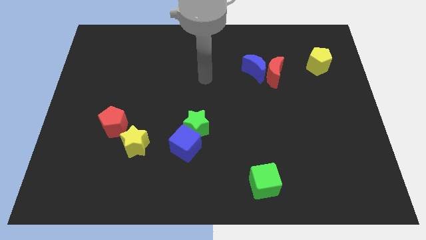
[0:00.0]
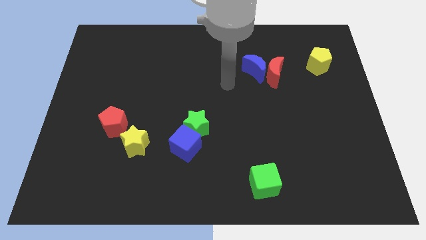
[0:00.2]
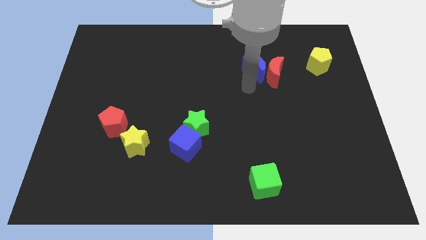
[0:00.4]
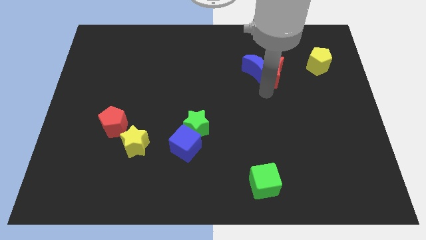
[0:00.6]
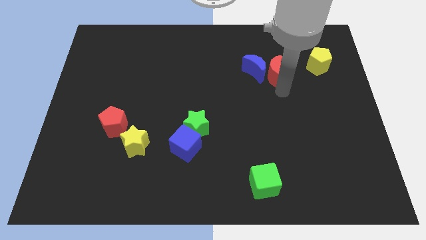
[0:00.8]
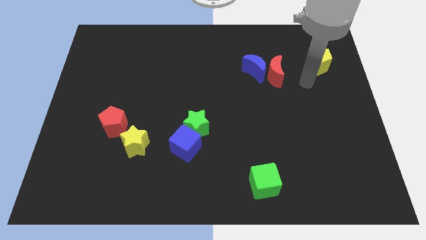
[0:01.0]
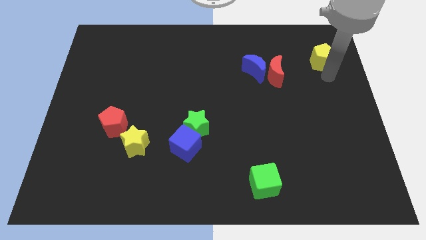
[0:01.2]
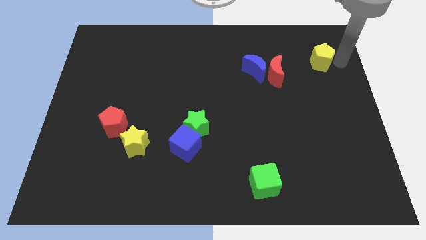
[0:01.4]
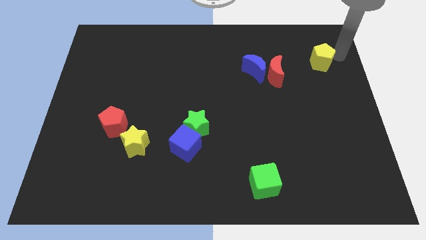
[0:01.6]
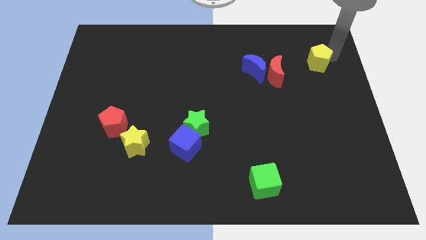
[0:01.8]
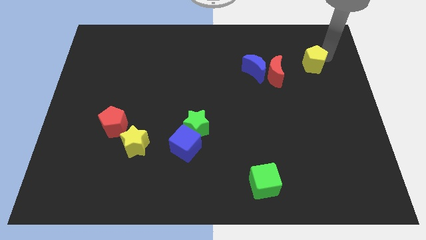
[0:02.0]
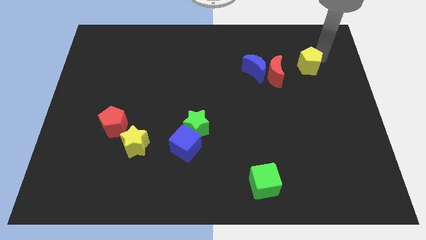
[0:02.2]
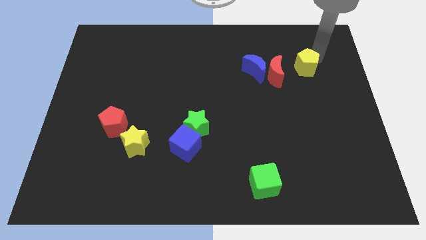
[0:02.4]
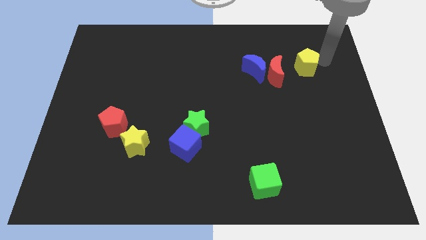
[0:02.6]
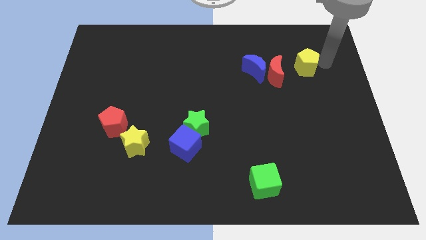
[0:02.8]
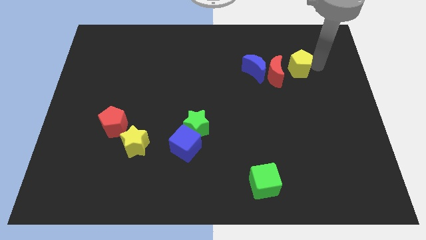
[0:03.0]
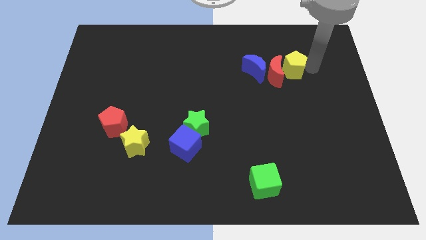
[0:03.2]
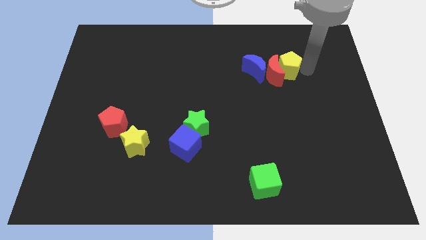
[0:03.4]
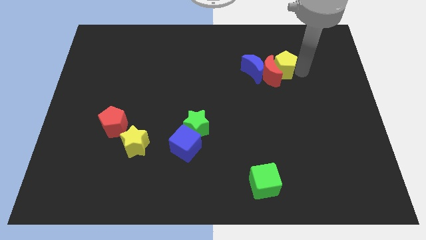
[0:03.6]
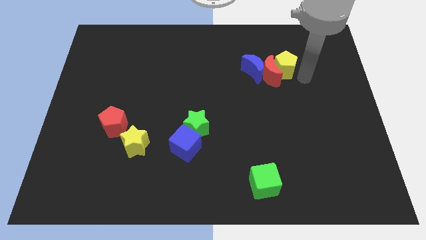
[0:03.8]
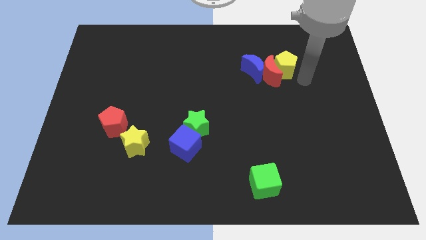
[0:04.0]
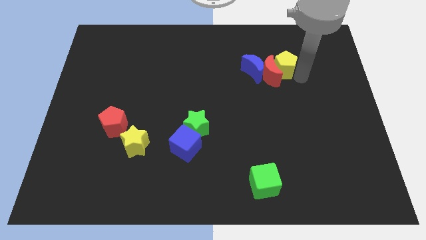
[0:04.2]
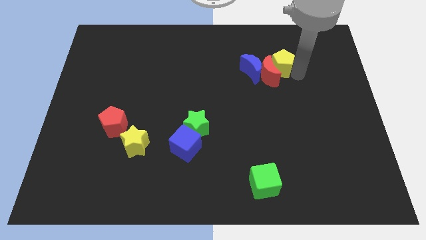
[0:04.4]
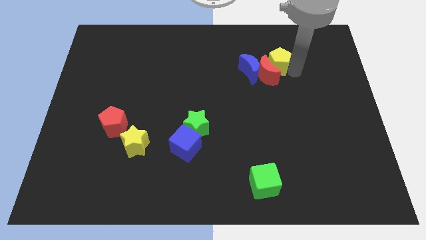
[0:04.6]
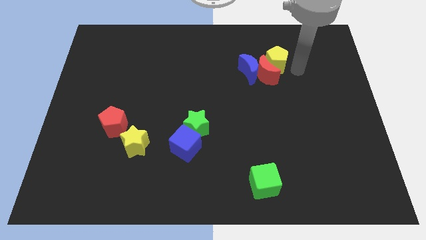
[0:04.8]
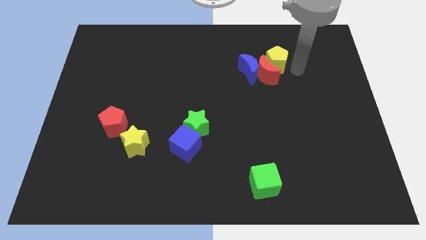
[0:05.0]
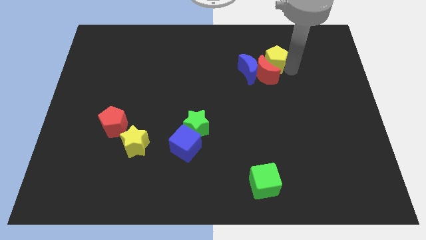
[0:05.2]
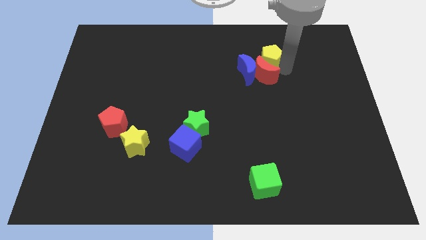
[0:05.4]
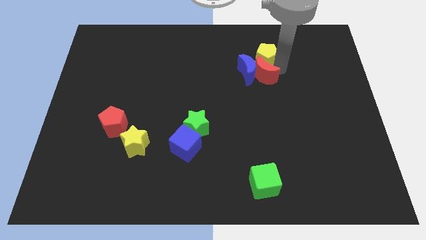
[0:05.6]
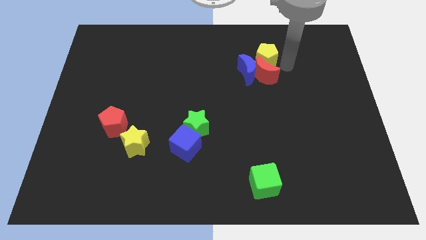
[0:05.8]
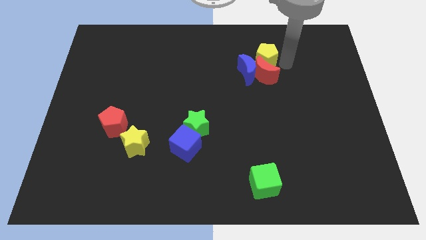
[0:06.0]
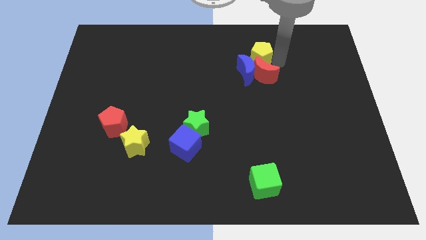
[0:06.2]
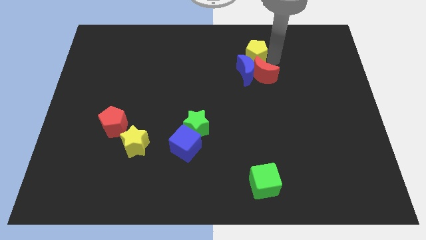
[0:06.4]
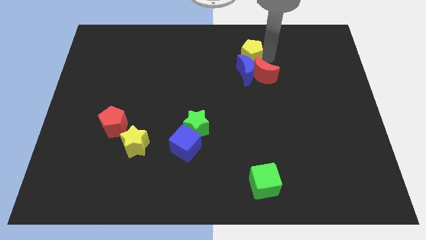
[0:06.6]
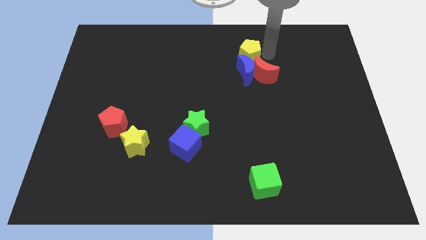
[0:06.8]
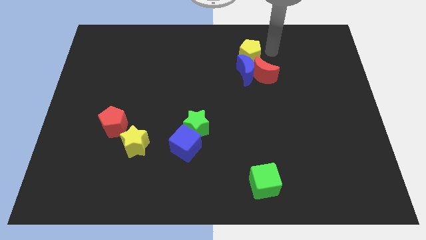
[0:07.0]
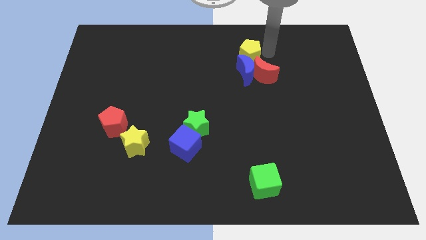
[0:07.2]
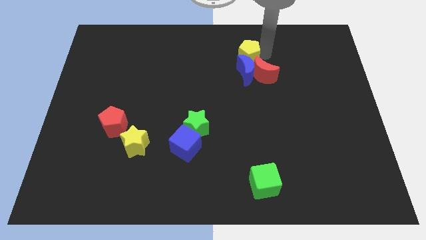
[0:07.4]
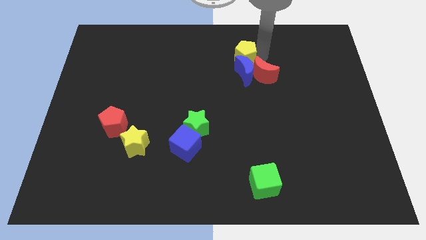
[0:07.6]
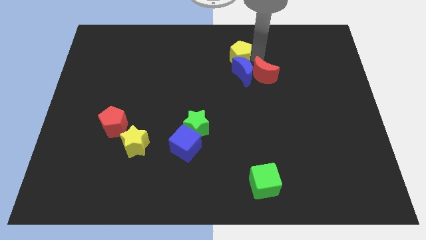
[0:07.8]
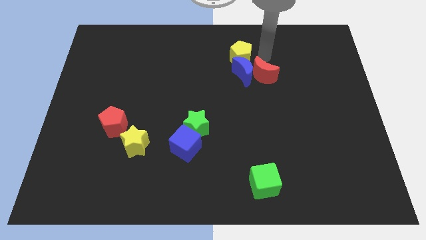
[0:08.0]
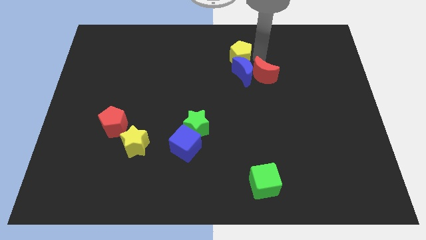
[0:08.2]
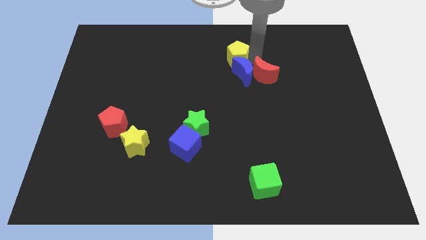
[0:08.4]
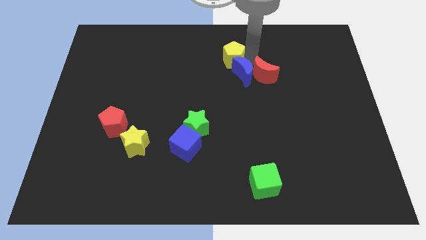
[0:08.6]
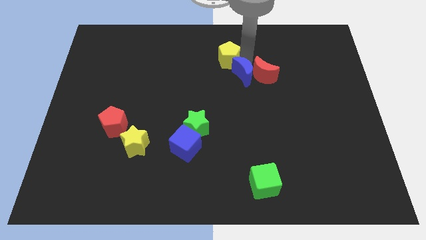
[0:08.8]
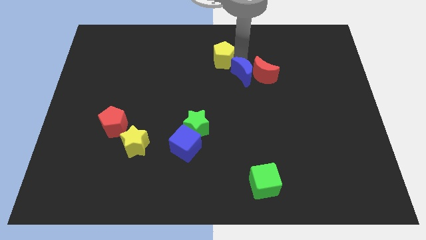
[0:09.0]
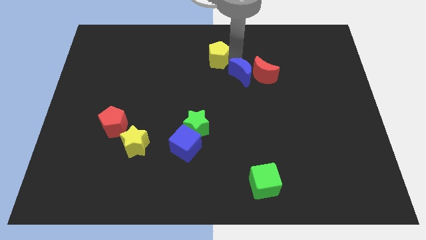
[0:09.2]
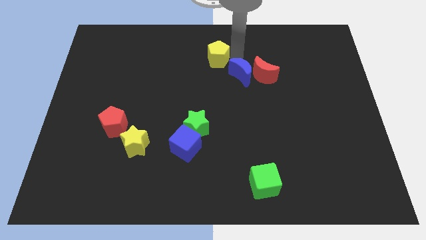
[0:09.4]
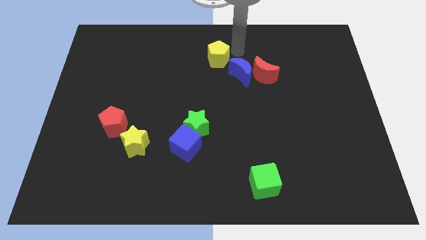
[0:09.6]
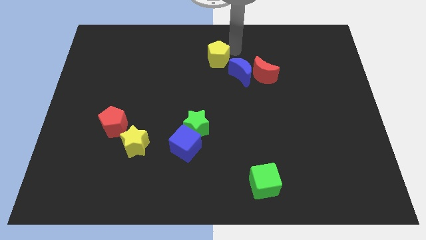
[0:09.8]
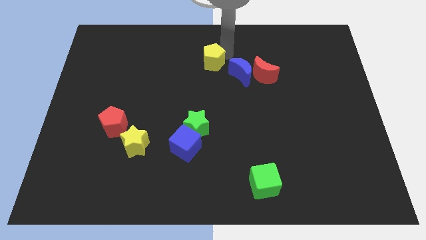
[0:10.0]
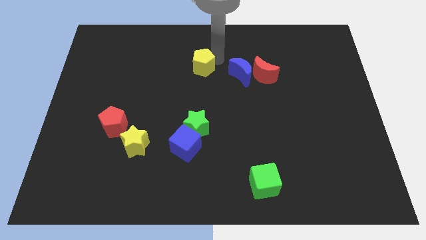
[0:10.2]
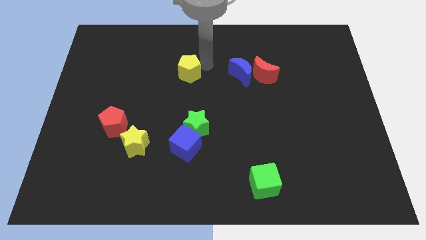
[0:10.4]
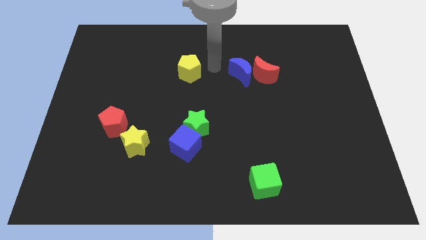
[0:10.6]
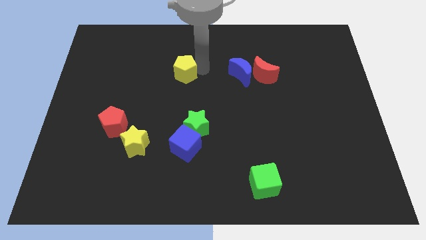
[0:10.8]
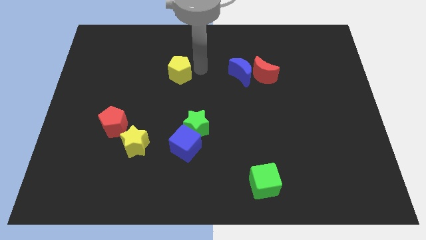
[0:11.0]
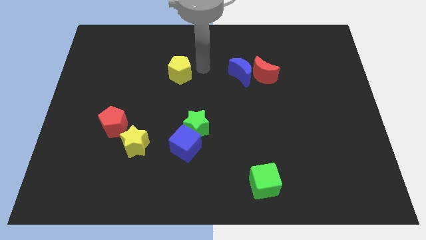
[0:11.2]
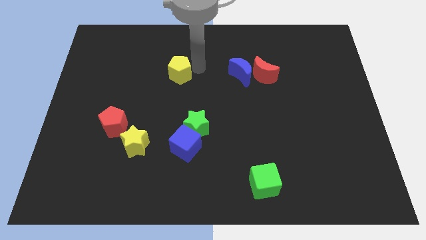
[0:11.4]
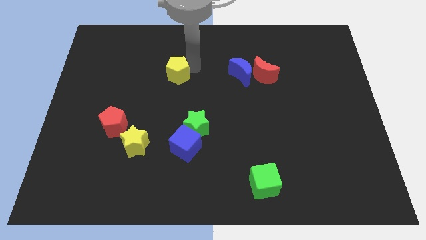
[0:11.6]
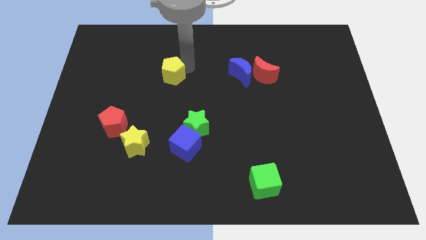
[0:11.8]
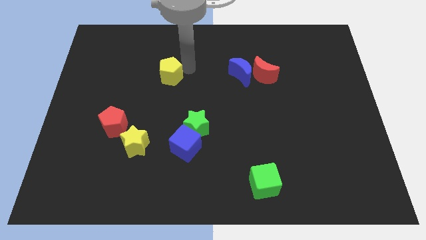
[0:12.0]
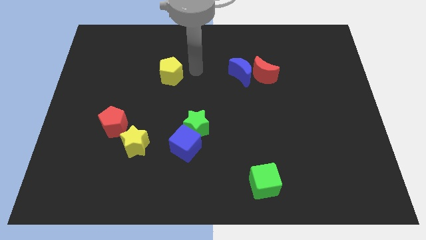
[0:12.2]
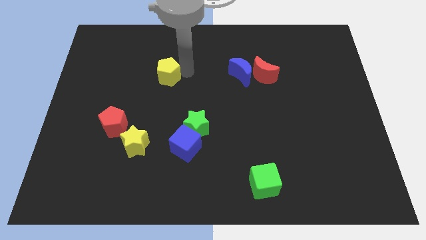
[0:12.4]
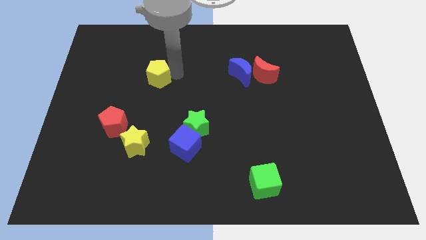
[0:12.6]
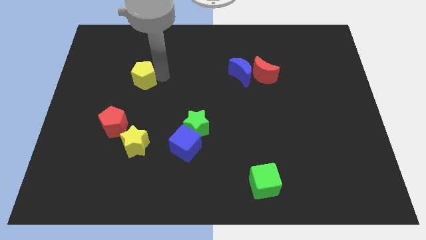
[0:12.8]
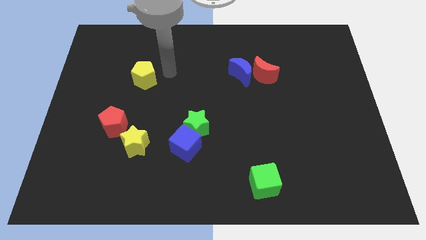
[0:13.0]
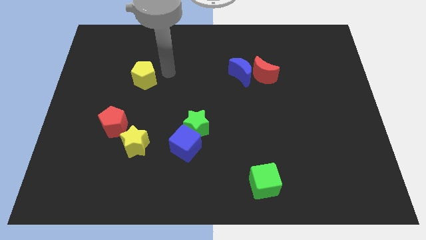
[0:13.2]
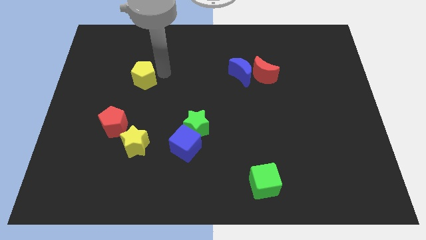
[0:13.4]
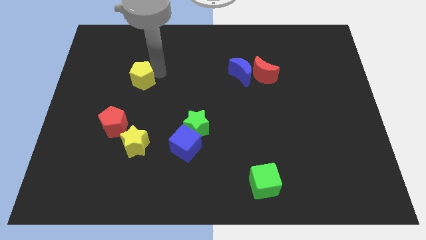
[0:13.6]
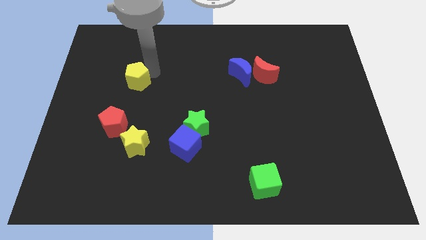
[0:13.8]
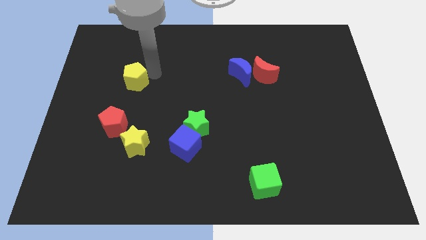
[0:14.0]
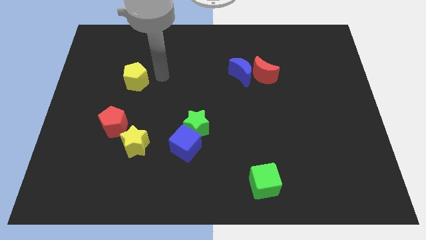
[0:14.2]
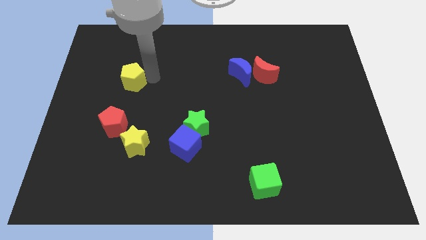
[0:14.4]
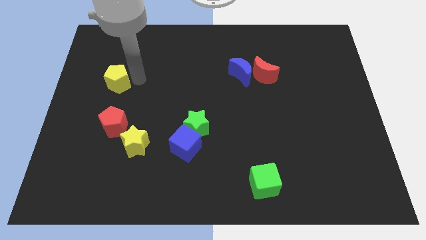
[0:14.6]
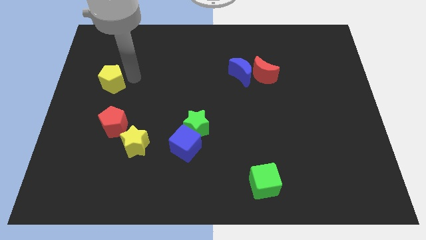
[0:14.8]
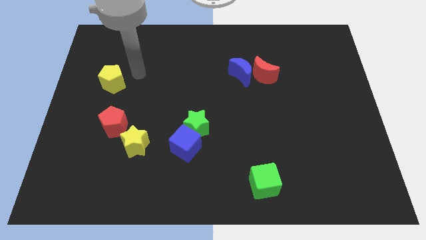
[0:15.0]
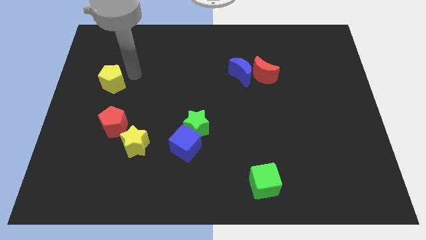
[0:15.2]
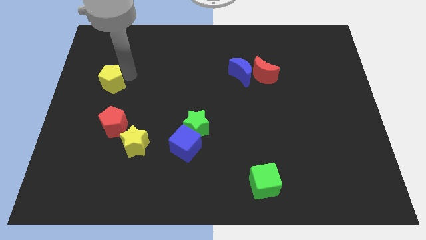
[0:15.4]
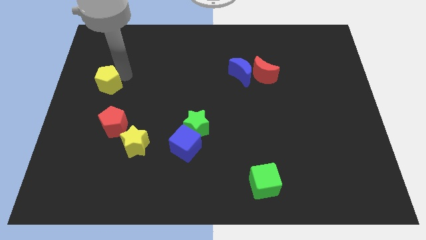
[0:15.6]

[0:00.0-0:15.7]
move the yellow pentagon to the left side
